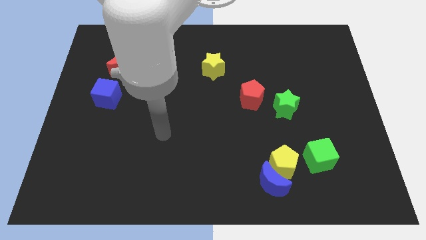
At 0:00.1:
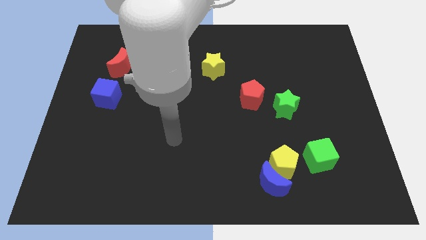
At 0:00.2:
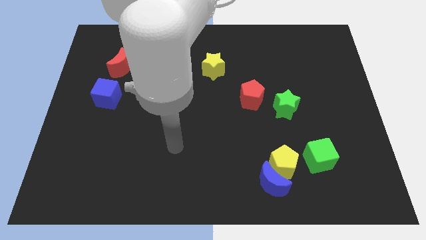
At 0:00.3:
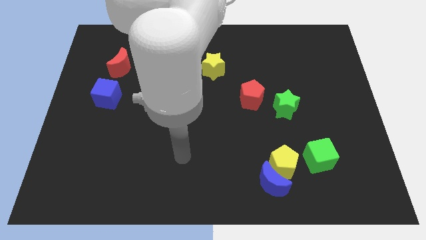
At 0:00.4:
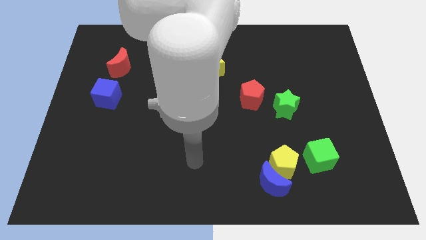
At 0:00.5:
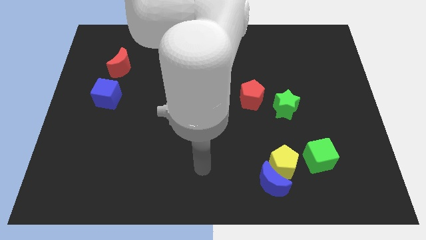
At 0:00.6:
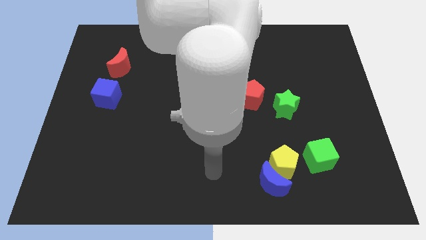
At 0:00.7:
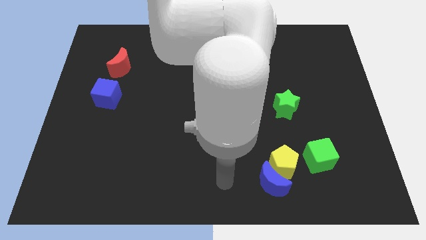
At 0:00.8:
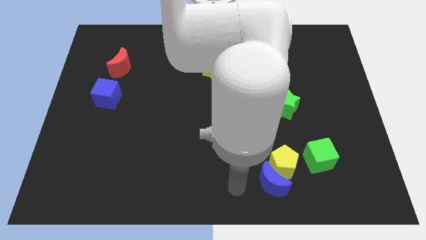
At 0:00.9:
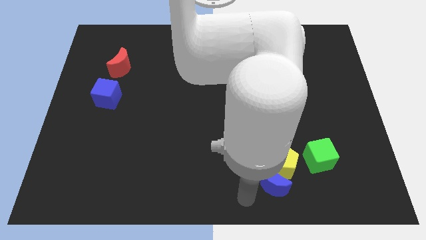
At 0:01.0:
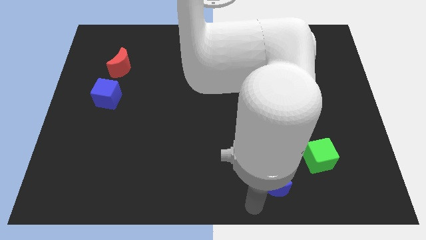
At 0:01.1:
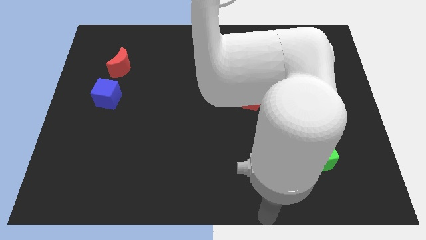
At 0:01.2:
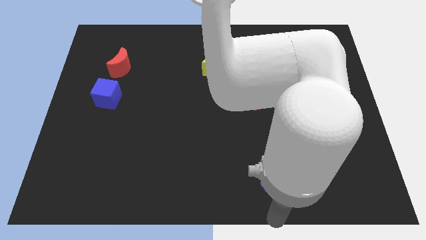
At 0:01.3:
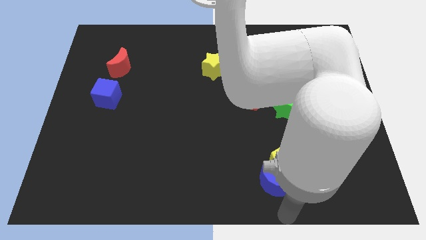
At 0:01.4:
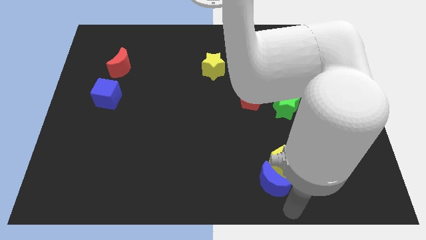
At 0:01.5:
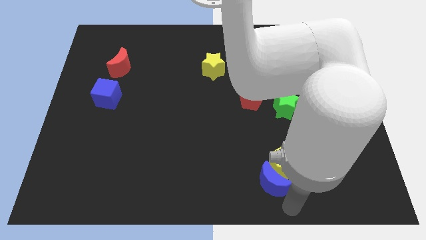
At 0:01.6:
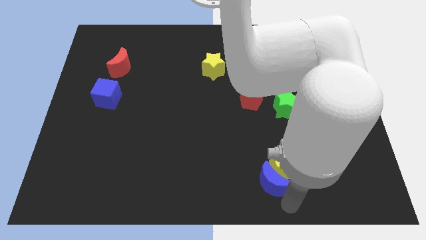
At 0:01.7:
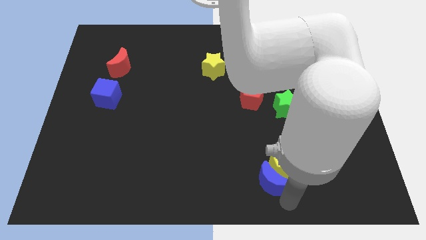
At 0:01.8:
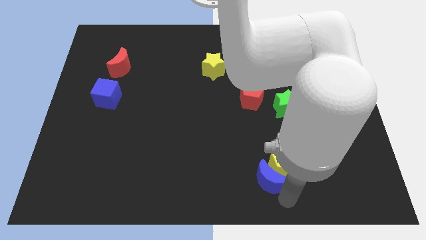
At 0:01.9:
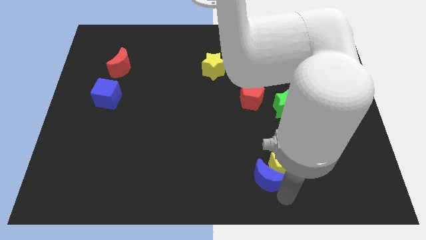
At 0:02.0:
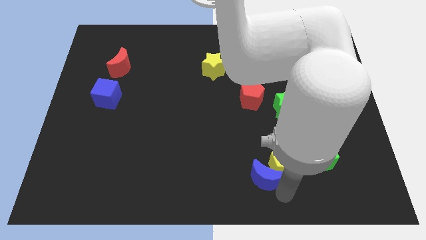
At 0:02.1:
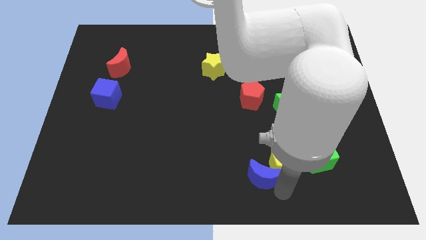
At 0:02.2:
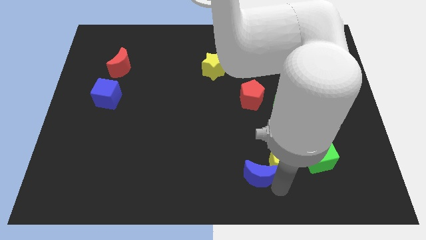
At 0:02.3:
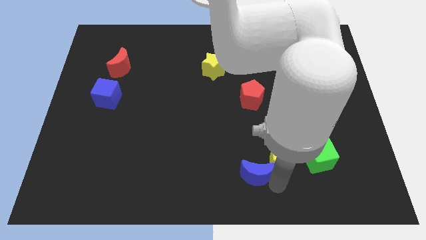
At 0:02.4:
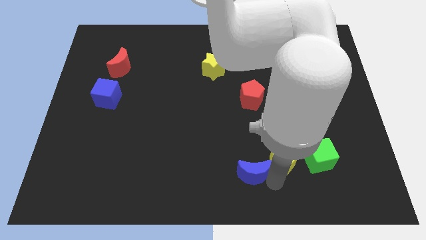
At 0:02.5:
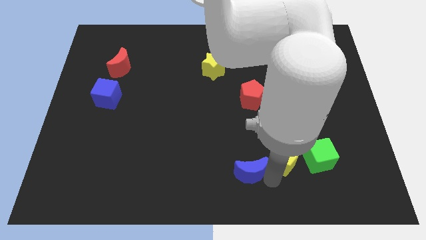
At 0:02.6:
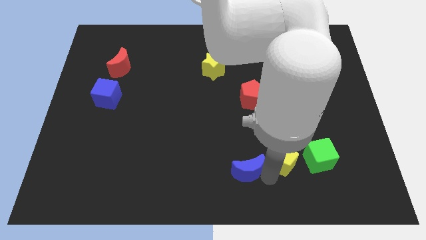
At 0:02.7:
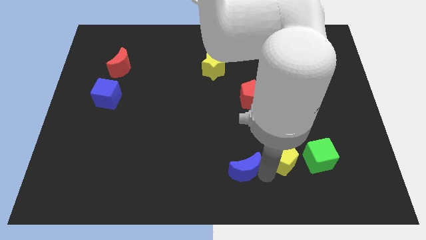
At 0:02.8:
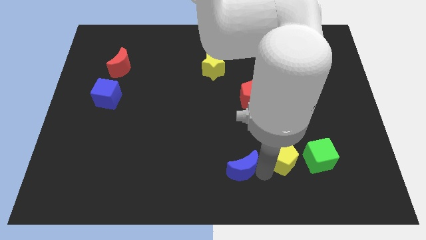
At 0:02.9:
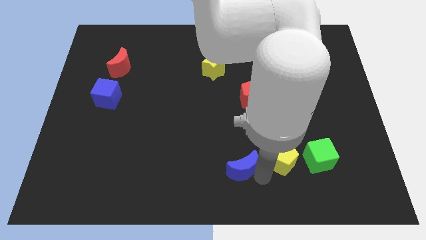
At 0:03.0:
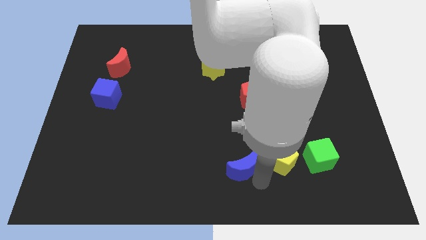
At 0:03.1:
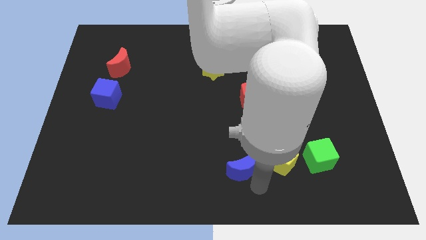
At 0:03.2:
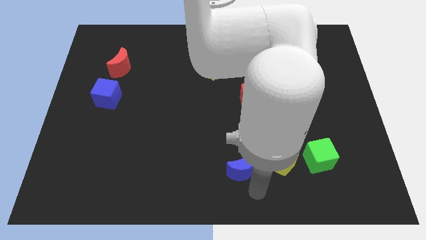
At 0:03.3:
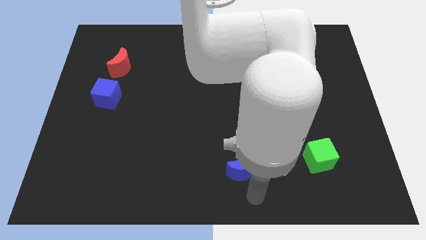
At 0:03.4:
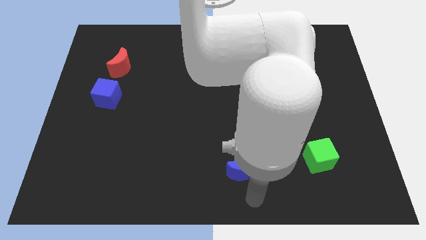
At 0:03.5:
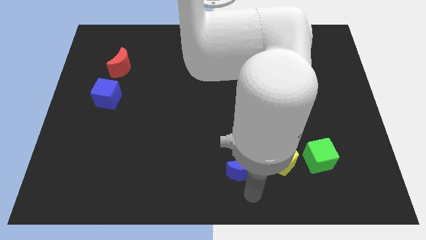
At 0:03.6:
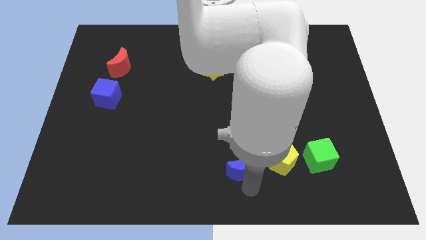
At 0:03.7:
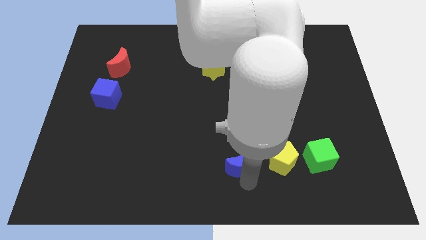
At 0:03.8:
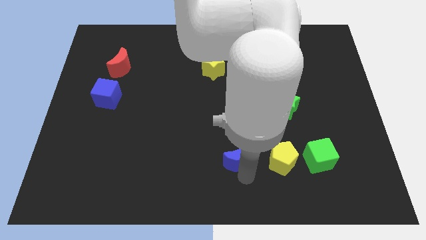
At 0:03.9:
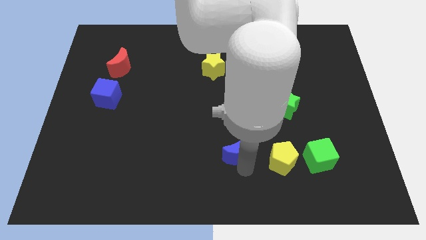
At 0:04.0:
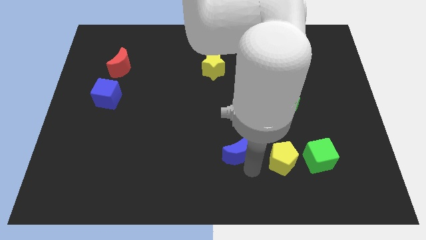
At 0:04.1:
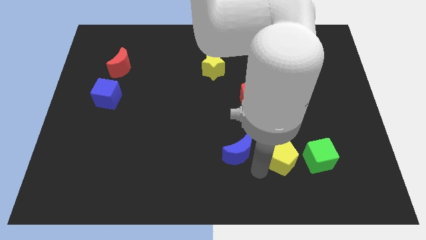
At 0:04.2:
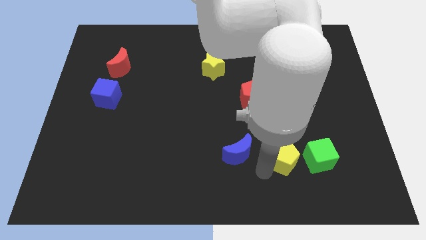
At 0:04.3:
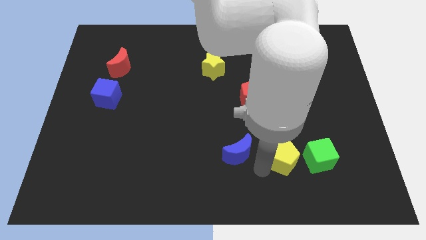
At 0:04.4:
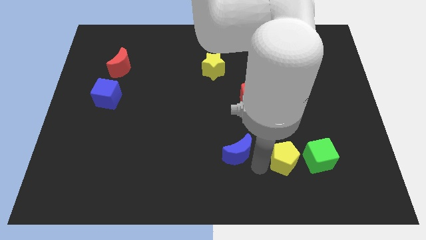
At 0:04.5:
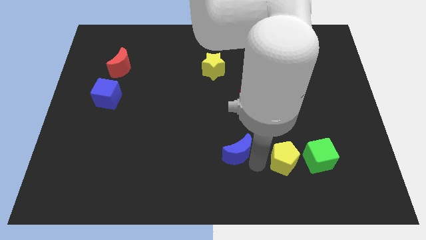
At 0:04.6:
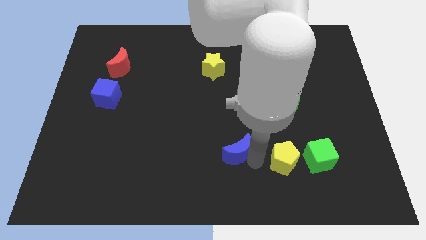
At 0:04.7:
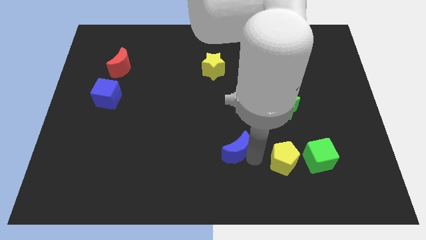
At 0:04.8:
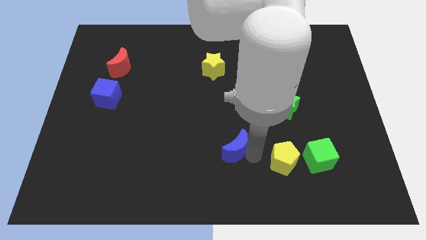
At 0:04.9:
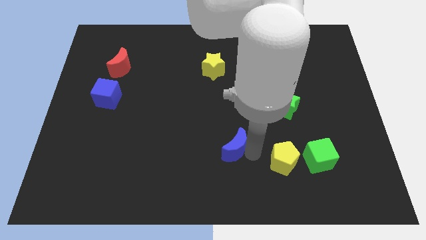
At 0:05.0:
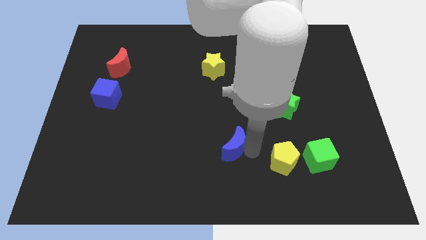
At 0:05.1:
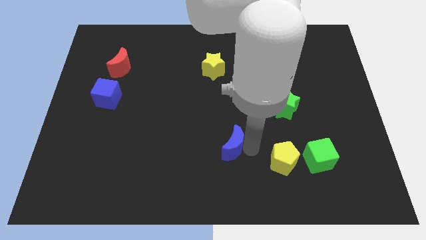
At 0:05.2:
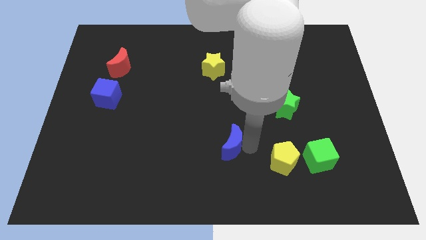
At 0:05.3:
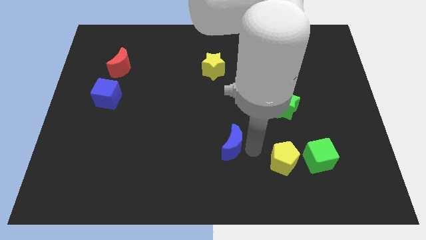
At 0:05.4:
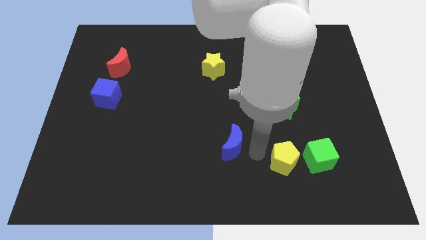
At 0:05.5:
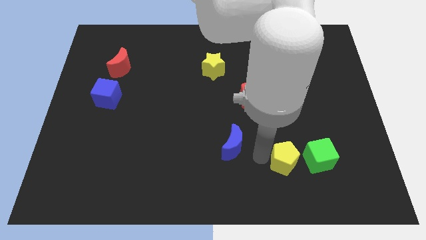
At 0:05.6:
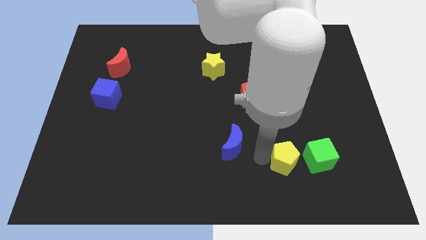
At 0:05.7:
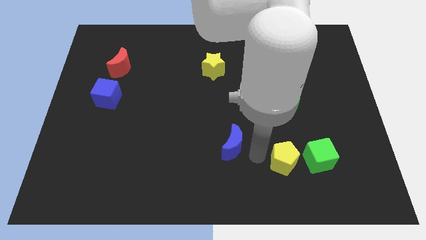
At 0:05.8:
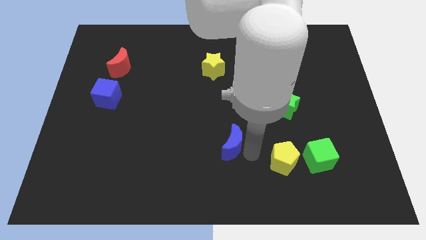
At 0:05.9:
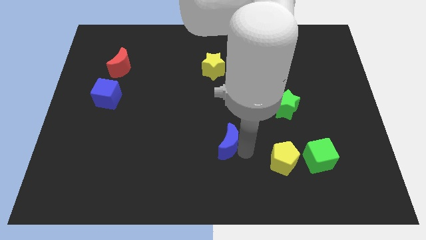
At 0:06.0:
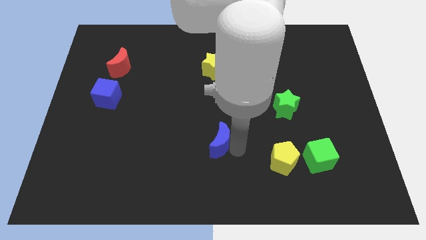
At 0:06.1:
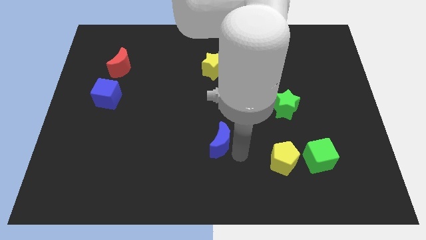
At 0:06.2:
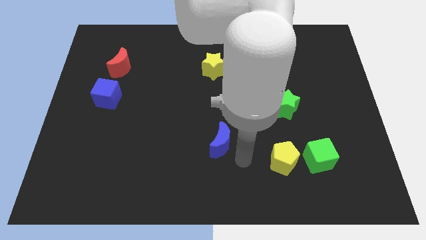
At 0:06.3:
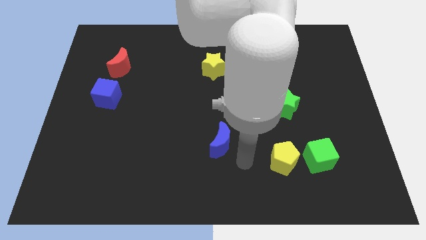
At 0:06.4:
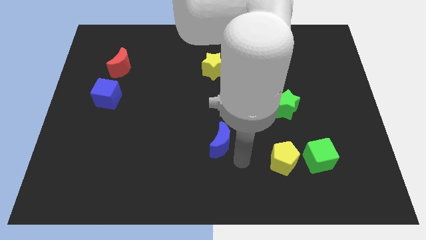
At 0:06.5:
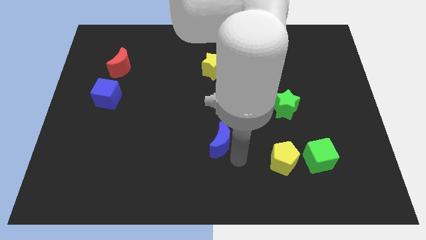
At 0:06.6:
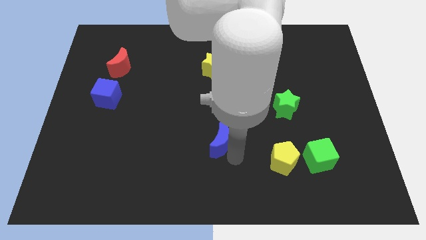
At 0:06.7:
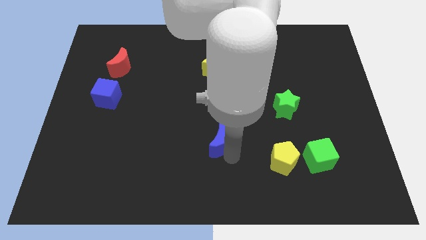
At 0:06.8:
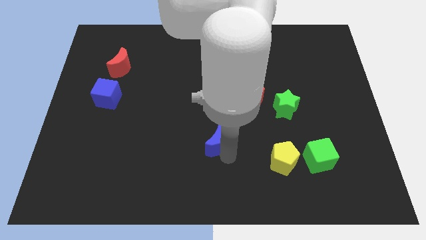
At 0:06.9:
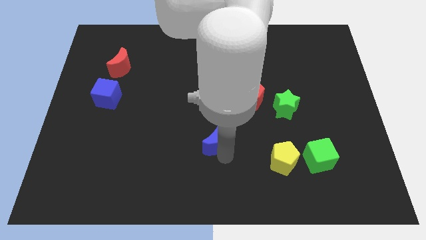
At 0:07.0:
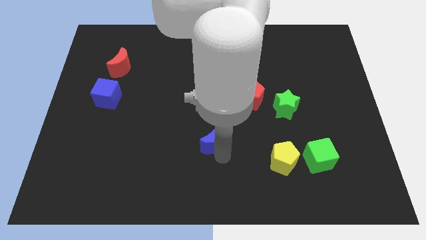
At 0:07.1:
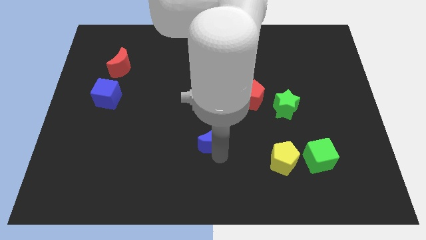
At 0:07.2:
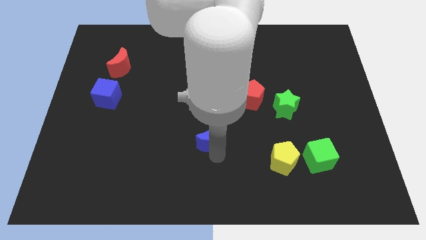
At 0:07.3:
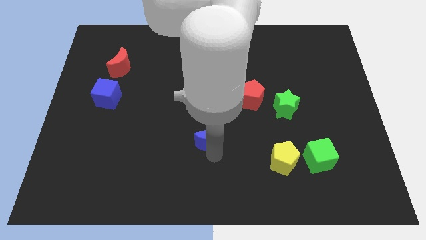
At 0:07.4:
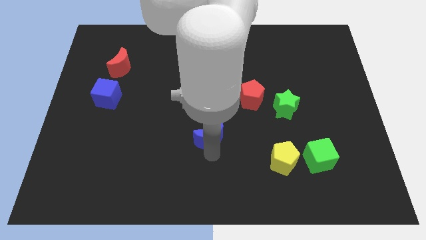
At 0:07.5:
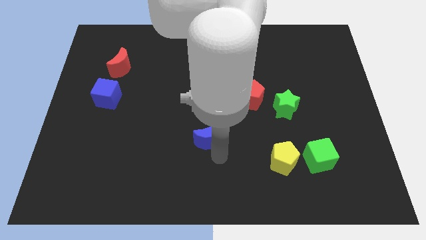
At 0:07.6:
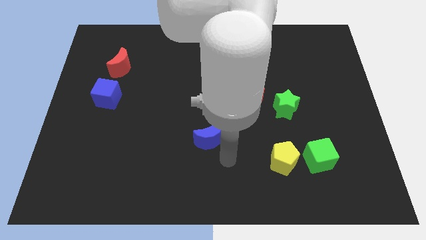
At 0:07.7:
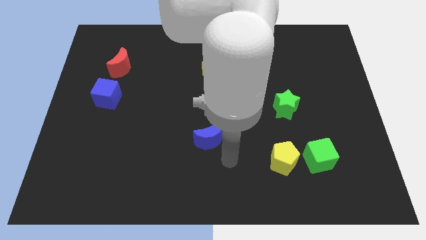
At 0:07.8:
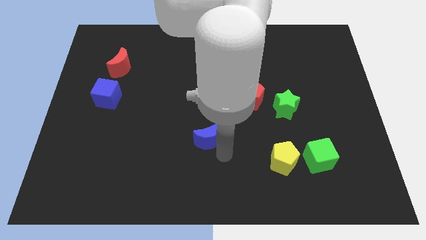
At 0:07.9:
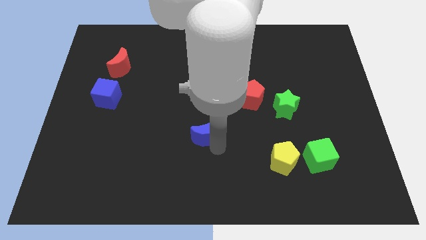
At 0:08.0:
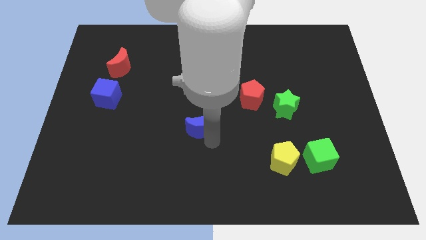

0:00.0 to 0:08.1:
move the blue moon up and left
